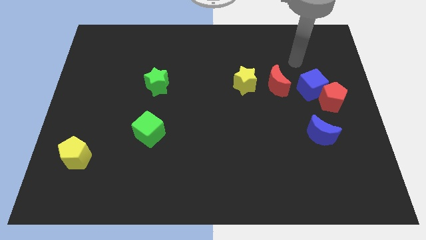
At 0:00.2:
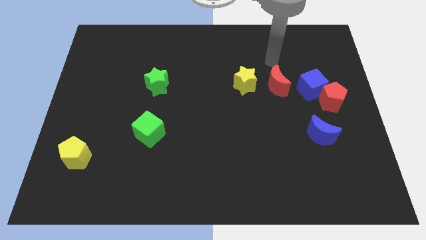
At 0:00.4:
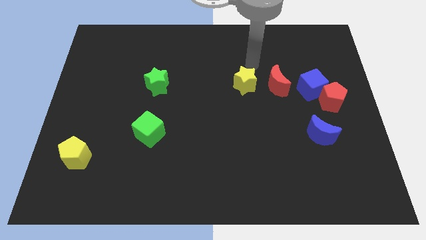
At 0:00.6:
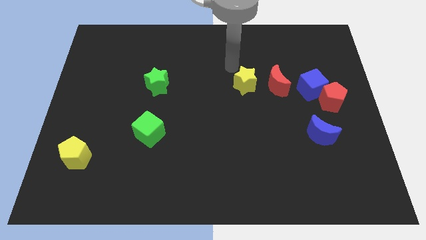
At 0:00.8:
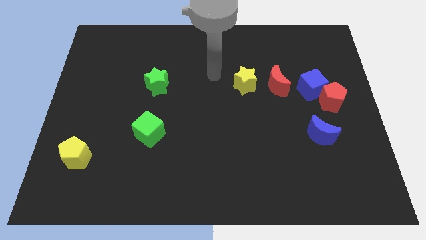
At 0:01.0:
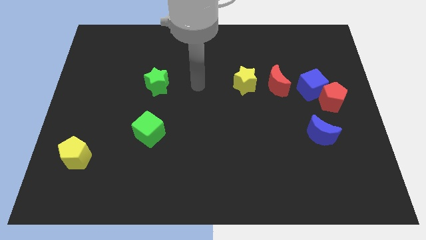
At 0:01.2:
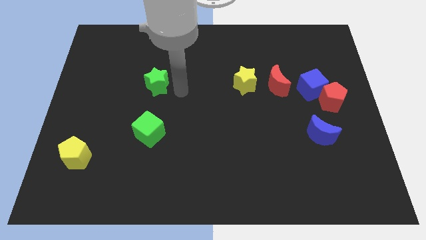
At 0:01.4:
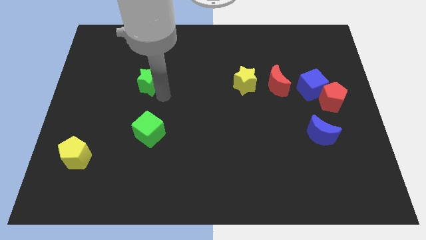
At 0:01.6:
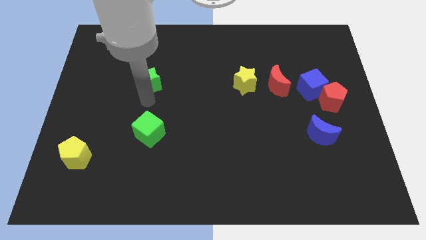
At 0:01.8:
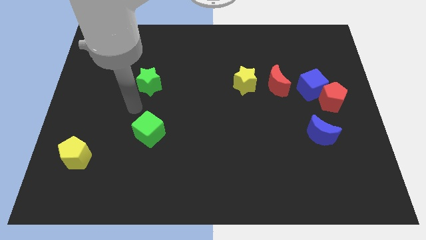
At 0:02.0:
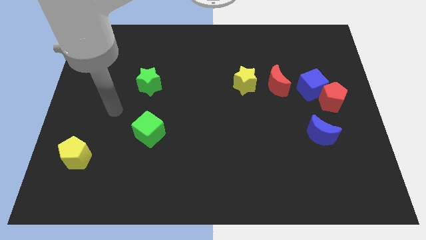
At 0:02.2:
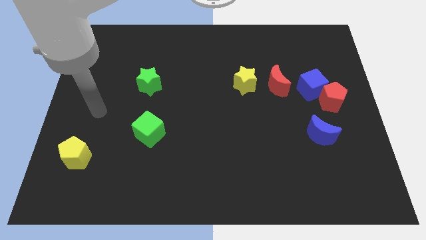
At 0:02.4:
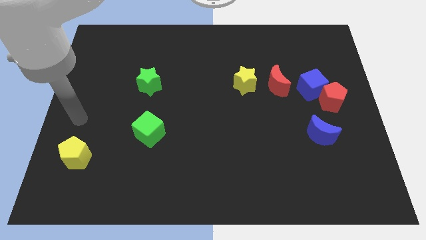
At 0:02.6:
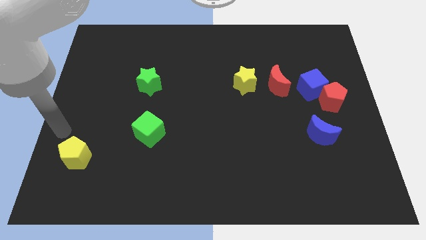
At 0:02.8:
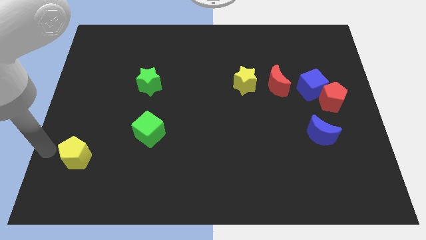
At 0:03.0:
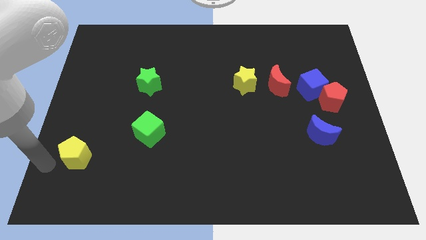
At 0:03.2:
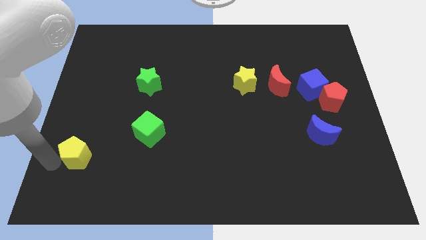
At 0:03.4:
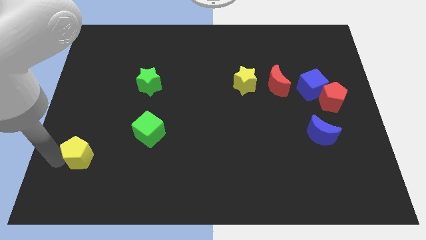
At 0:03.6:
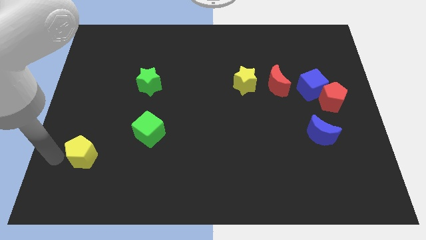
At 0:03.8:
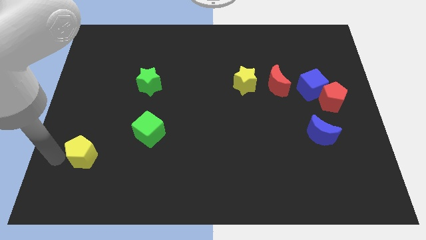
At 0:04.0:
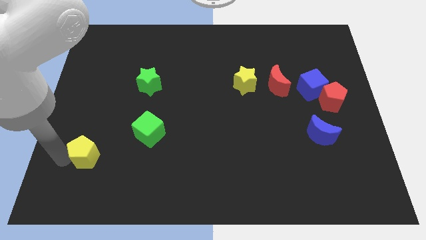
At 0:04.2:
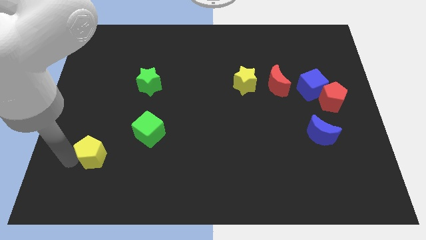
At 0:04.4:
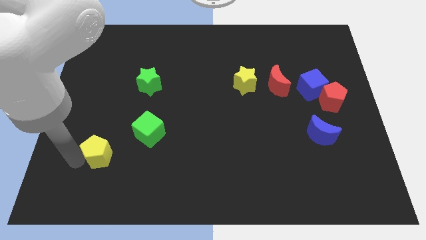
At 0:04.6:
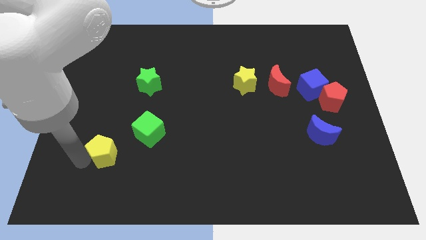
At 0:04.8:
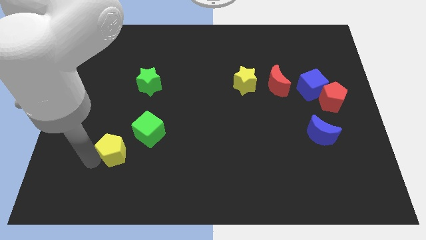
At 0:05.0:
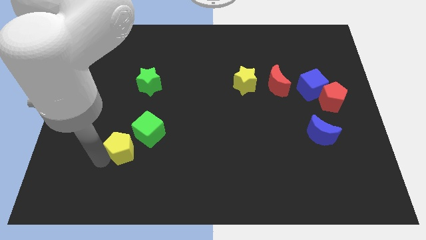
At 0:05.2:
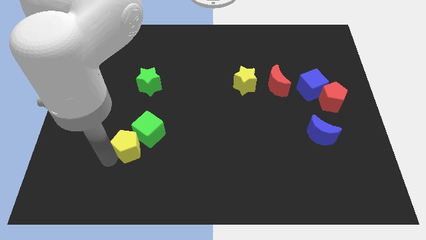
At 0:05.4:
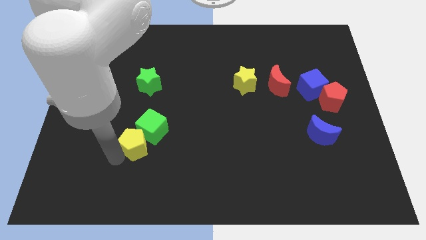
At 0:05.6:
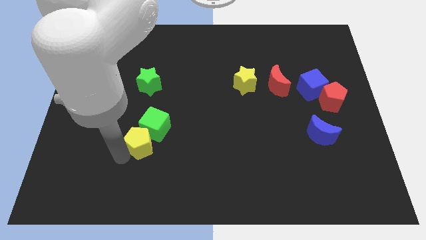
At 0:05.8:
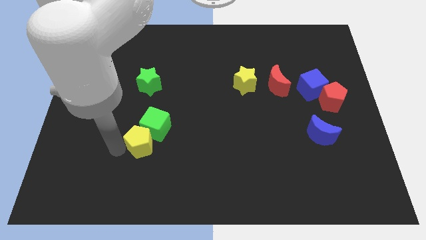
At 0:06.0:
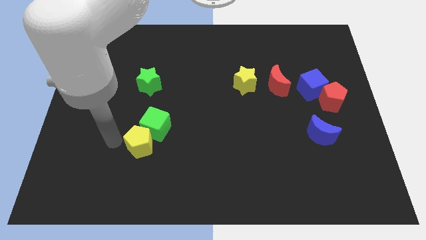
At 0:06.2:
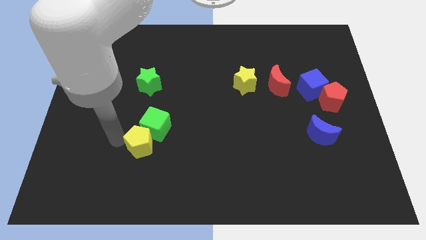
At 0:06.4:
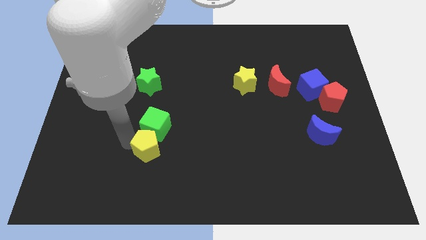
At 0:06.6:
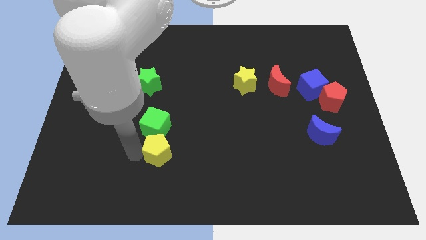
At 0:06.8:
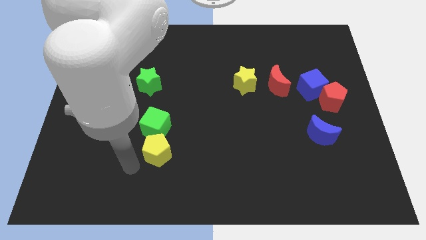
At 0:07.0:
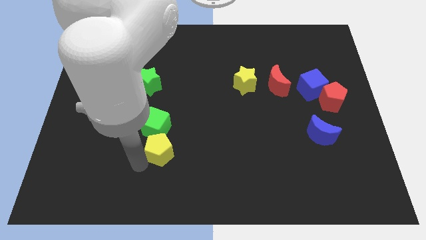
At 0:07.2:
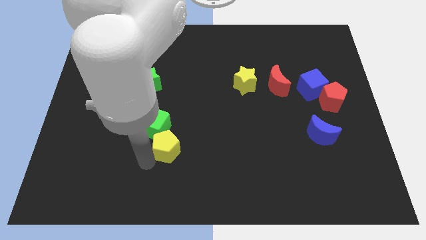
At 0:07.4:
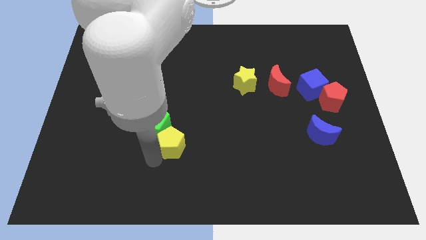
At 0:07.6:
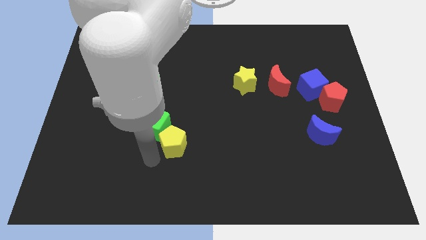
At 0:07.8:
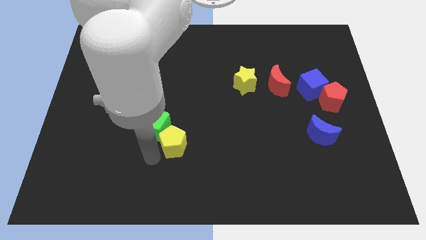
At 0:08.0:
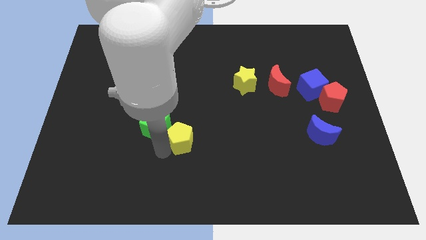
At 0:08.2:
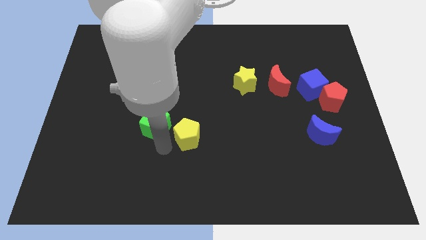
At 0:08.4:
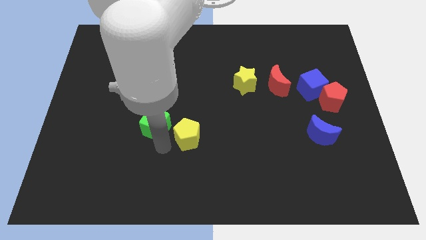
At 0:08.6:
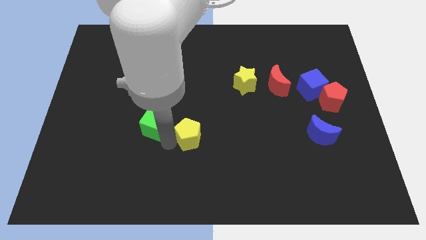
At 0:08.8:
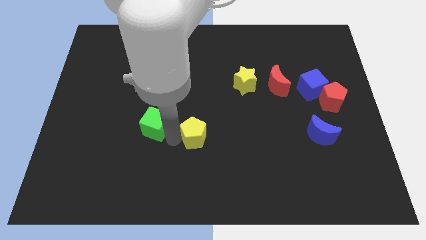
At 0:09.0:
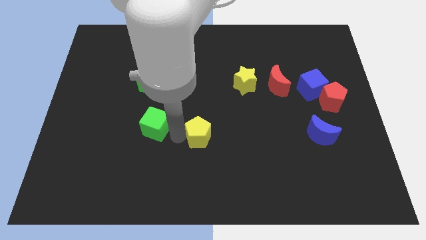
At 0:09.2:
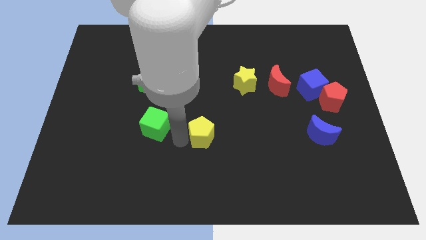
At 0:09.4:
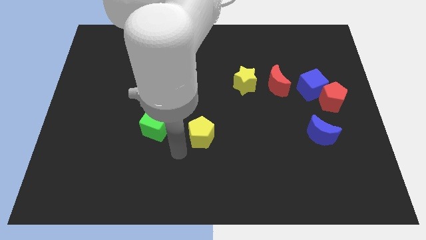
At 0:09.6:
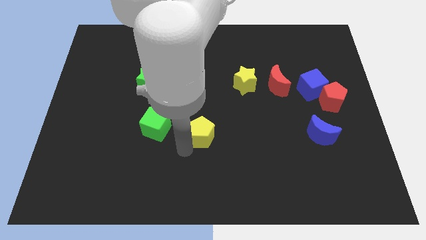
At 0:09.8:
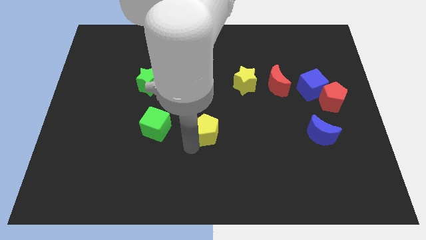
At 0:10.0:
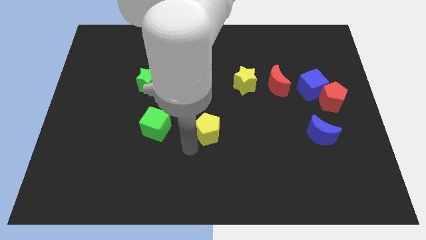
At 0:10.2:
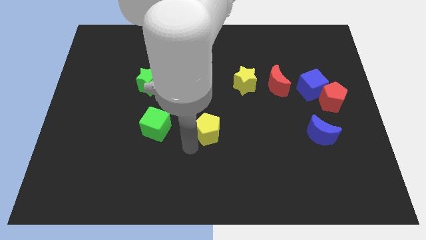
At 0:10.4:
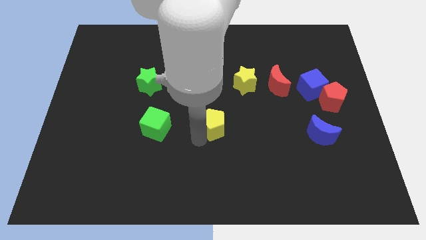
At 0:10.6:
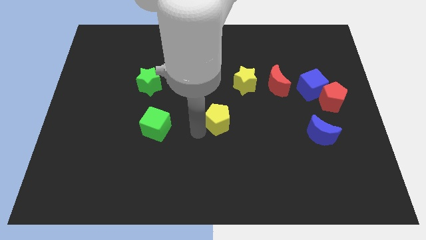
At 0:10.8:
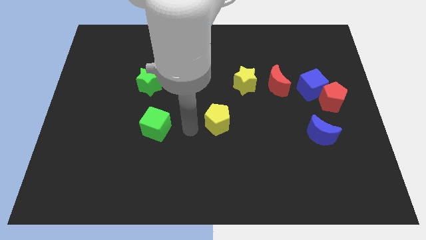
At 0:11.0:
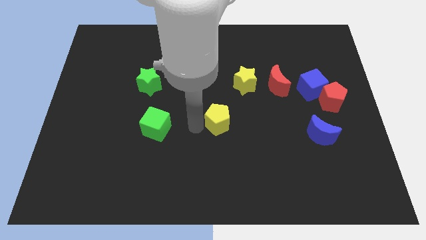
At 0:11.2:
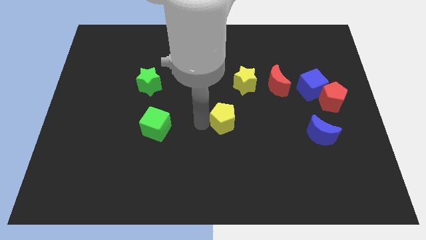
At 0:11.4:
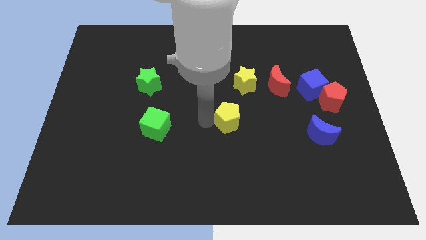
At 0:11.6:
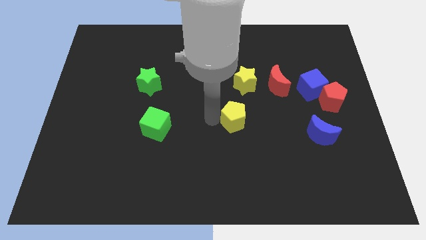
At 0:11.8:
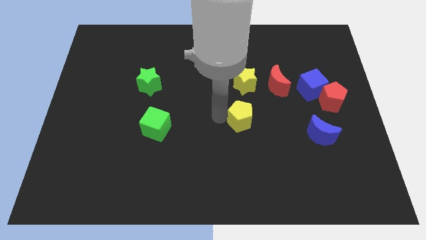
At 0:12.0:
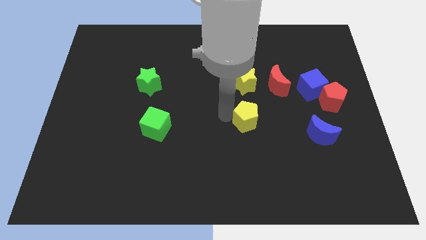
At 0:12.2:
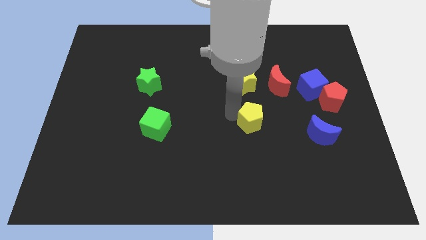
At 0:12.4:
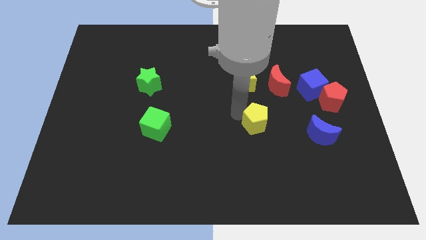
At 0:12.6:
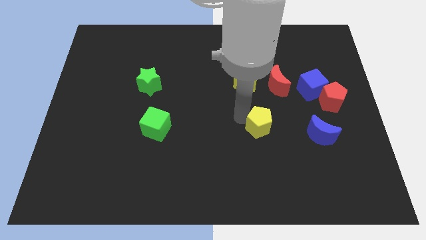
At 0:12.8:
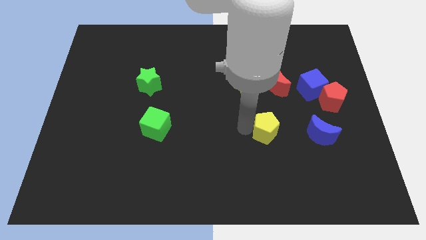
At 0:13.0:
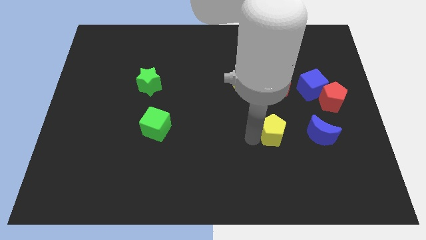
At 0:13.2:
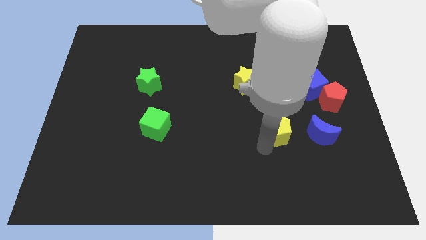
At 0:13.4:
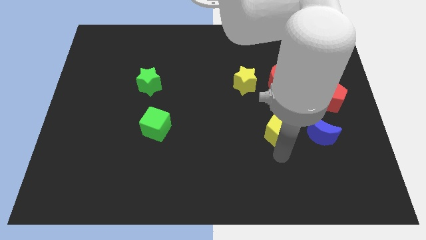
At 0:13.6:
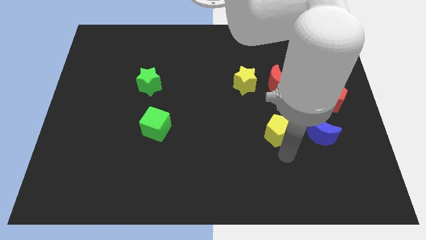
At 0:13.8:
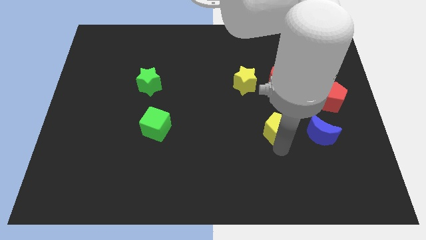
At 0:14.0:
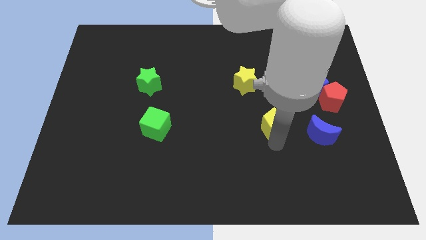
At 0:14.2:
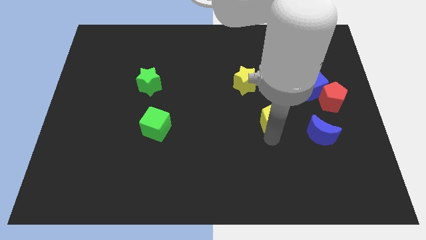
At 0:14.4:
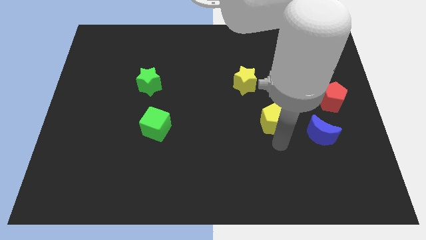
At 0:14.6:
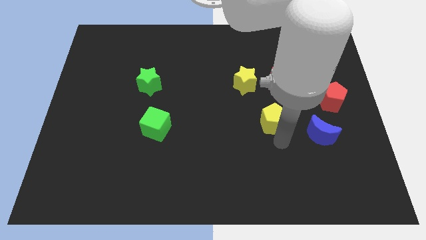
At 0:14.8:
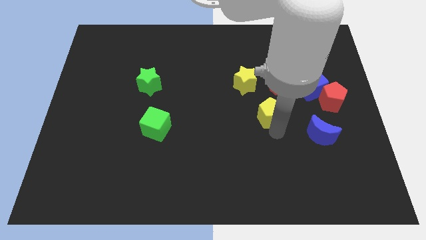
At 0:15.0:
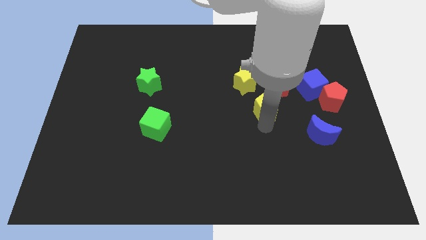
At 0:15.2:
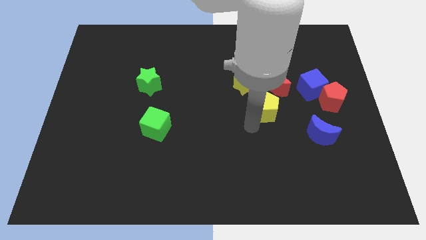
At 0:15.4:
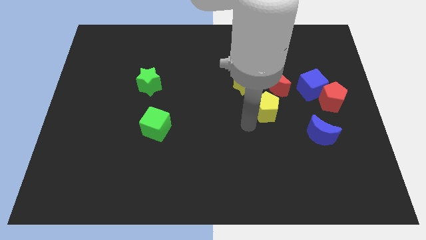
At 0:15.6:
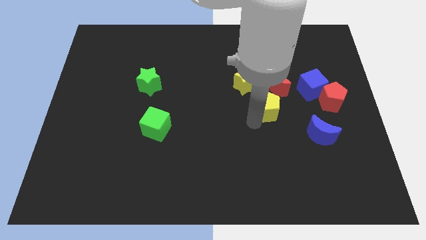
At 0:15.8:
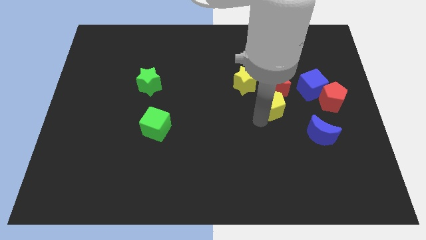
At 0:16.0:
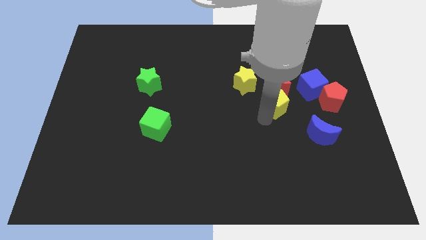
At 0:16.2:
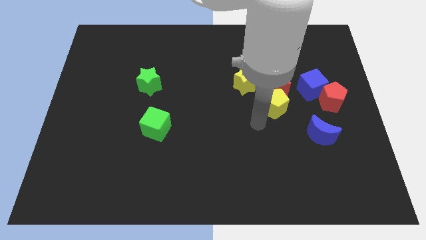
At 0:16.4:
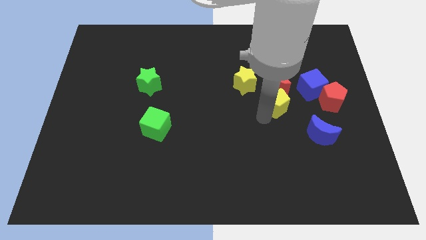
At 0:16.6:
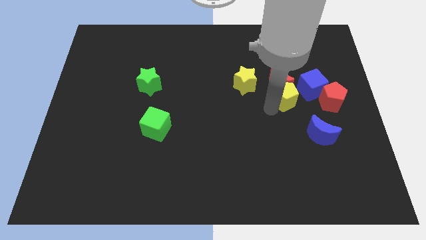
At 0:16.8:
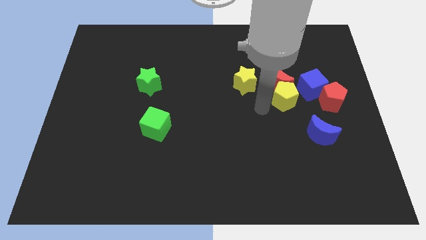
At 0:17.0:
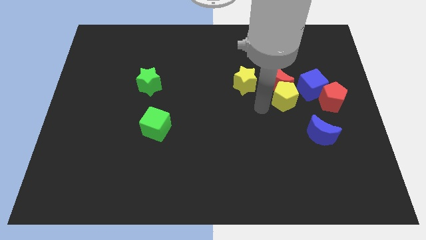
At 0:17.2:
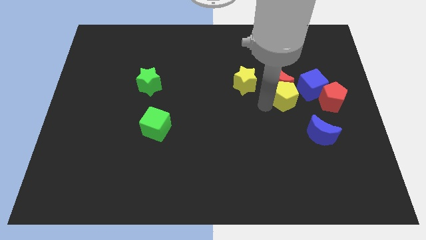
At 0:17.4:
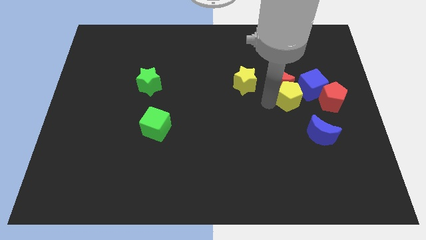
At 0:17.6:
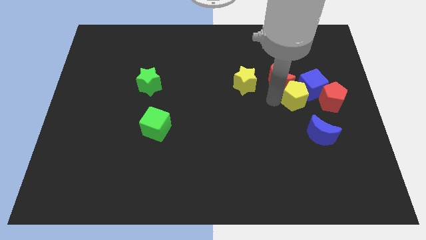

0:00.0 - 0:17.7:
move the yellow pentagon next to the blue cube
